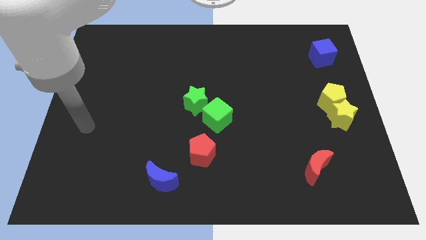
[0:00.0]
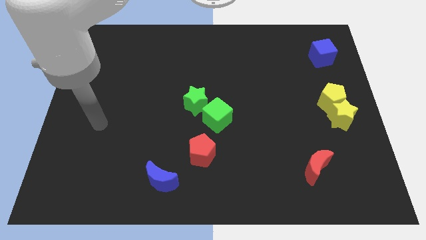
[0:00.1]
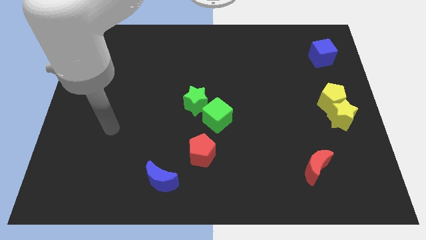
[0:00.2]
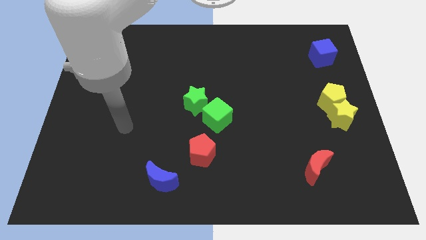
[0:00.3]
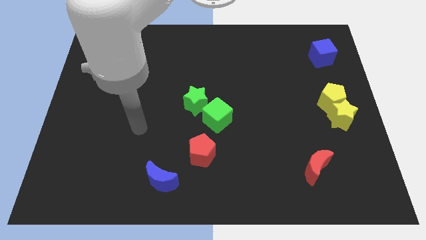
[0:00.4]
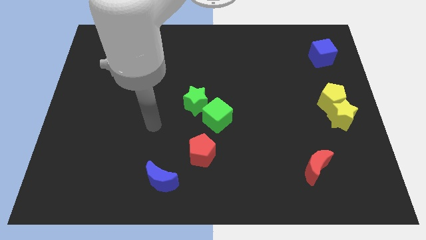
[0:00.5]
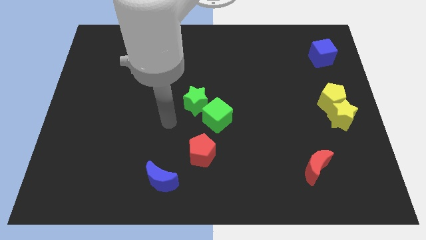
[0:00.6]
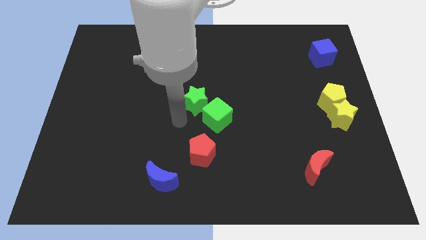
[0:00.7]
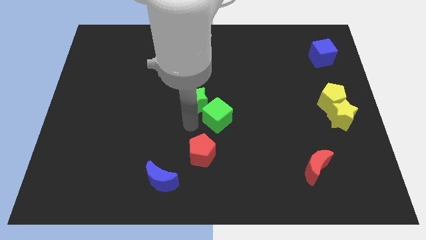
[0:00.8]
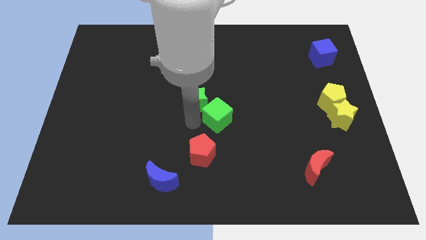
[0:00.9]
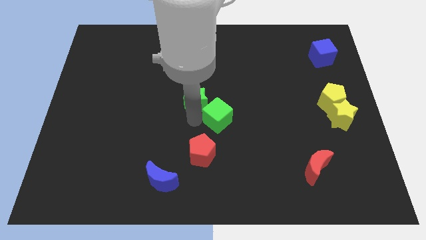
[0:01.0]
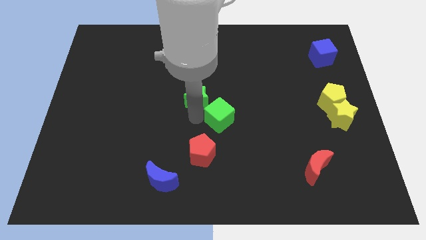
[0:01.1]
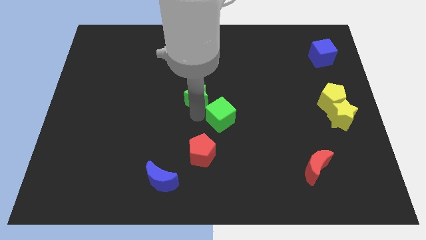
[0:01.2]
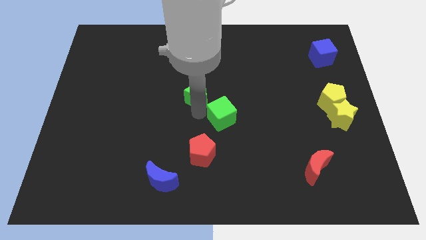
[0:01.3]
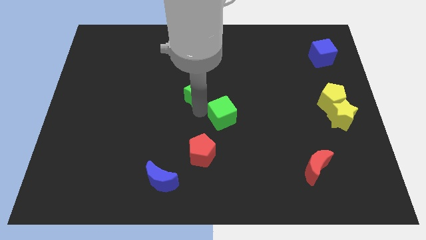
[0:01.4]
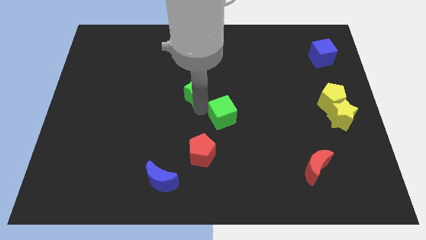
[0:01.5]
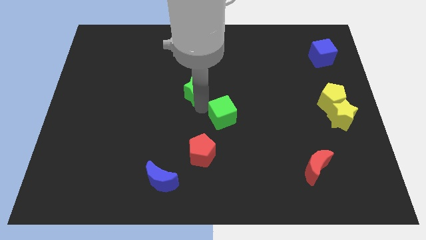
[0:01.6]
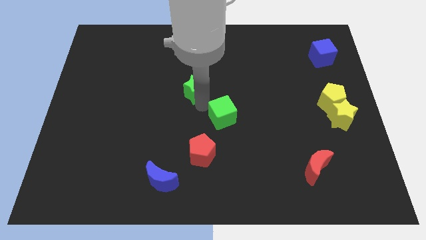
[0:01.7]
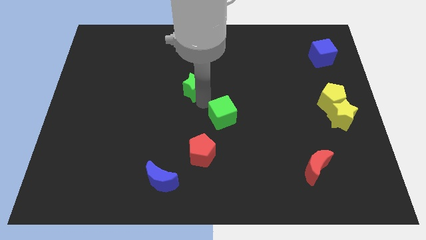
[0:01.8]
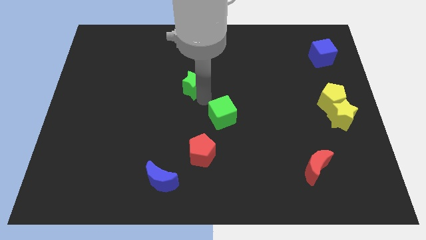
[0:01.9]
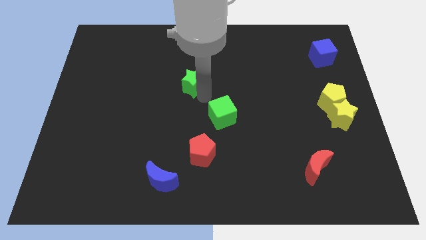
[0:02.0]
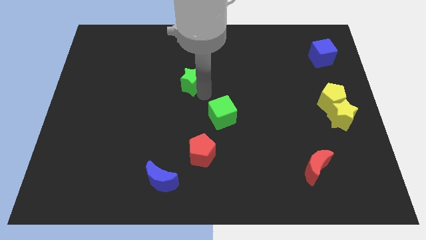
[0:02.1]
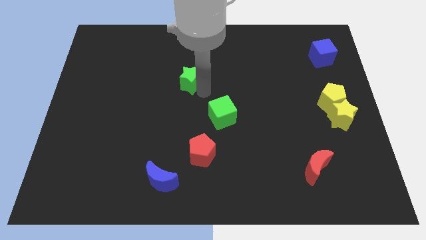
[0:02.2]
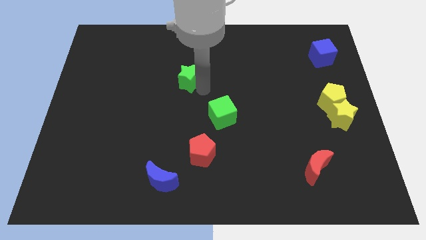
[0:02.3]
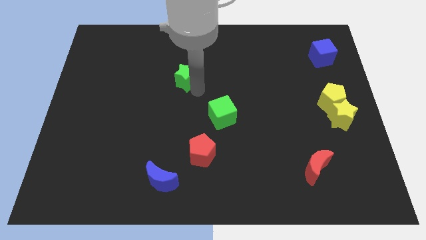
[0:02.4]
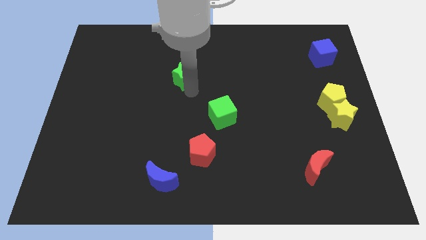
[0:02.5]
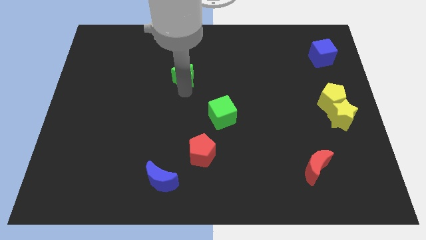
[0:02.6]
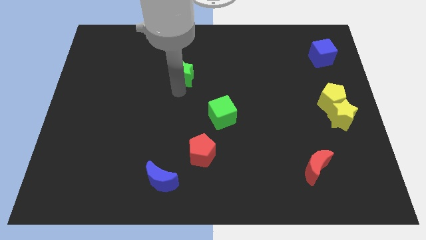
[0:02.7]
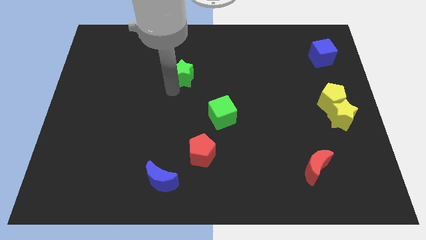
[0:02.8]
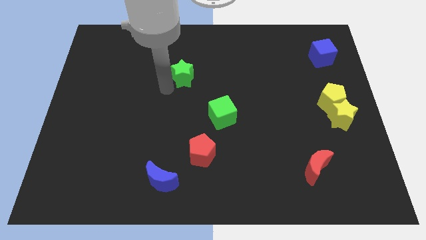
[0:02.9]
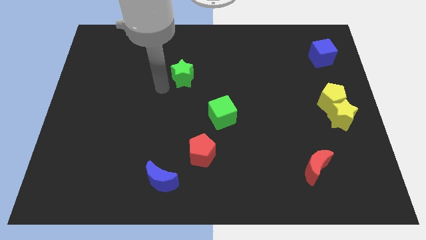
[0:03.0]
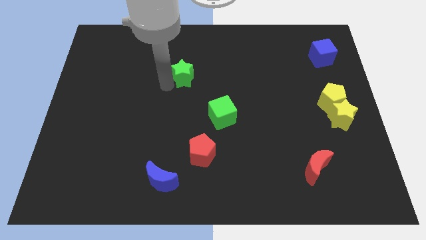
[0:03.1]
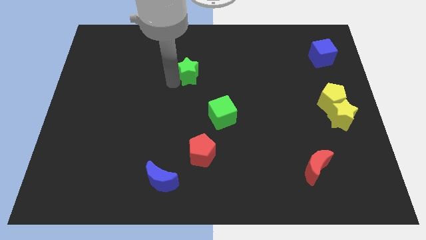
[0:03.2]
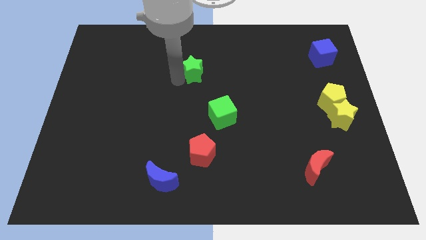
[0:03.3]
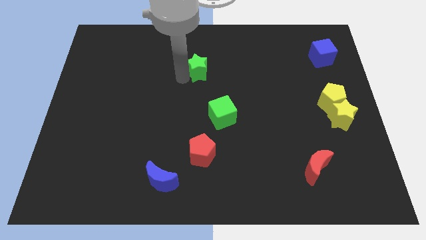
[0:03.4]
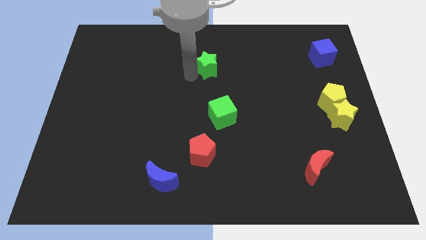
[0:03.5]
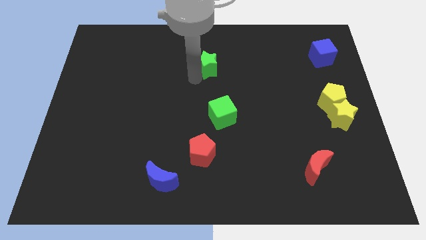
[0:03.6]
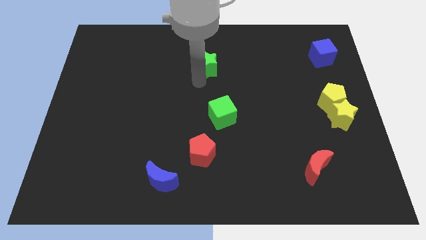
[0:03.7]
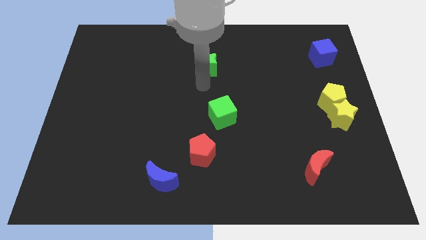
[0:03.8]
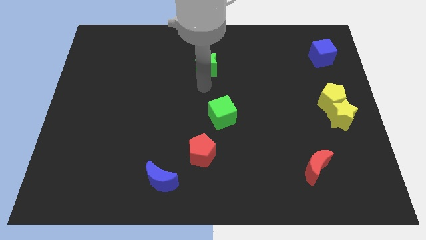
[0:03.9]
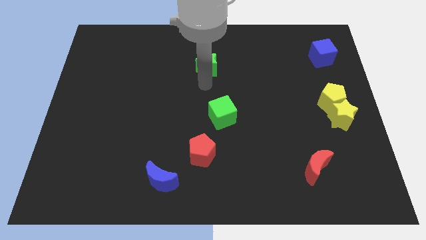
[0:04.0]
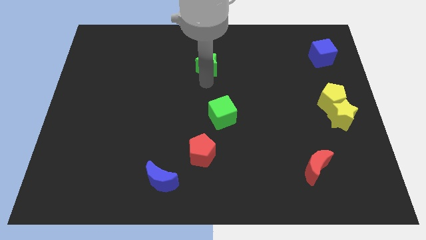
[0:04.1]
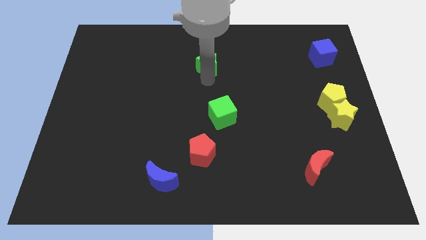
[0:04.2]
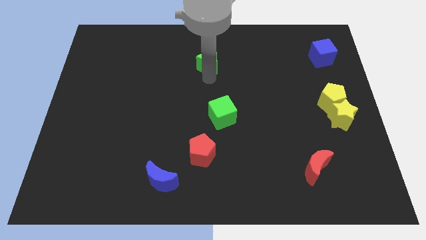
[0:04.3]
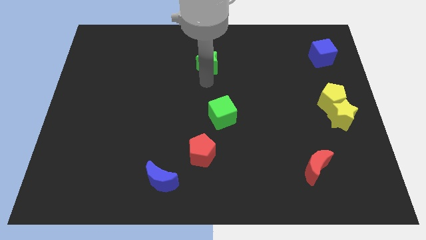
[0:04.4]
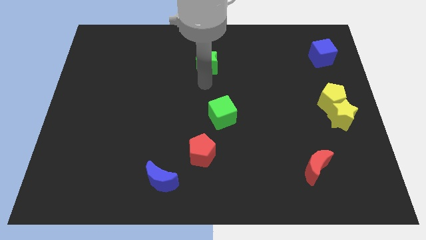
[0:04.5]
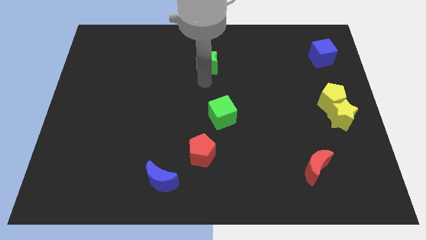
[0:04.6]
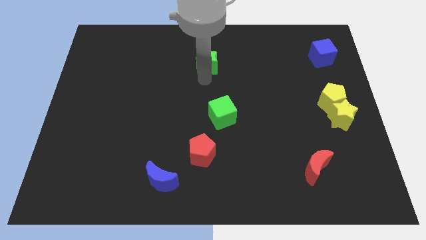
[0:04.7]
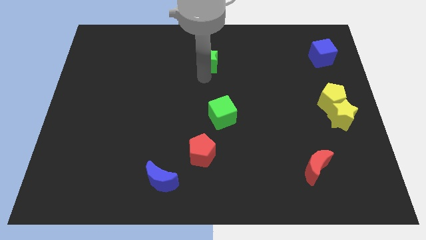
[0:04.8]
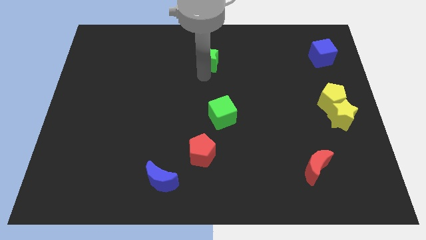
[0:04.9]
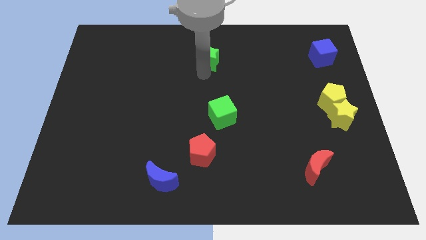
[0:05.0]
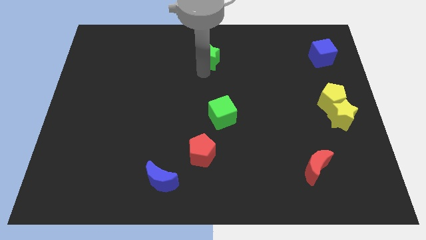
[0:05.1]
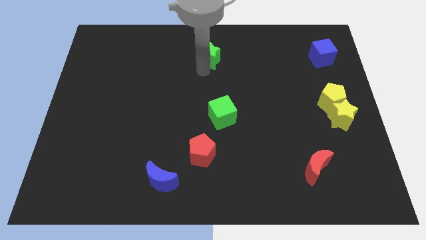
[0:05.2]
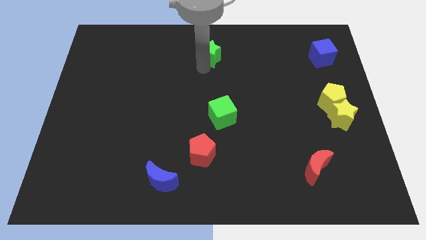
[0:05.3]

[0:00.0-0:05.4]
slide the green star to the towards your base

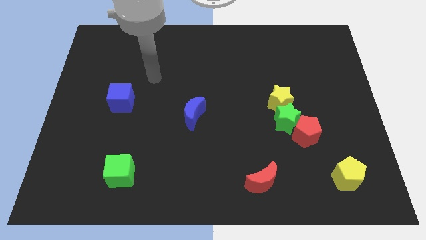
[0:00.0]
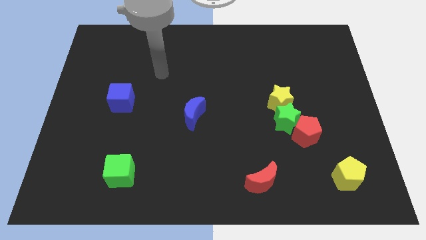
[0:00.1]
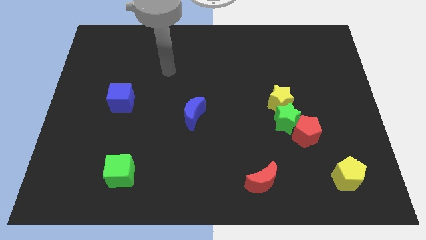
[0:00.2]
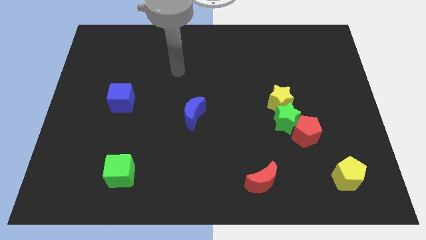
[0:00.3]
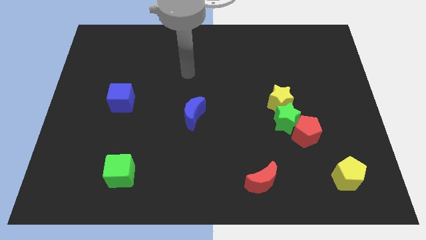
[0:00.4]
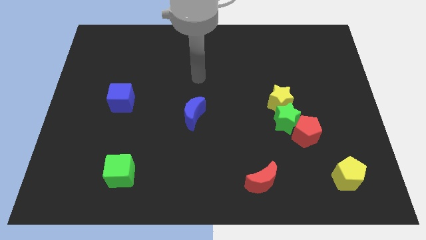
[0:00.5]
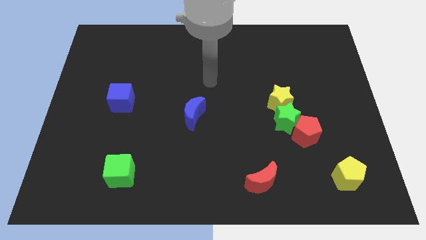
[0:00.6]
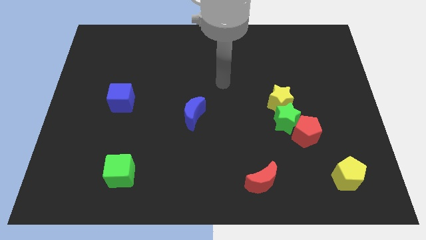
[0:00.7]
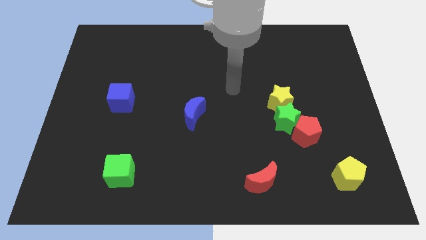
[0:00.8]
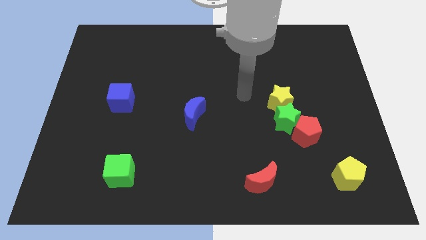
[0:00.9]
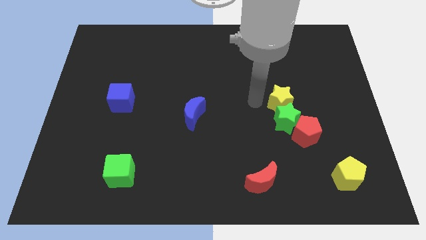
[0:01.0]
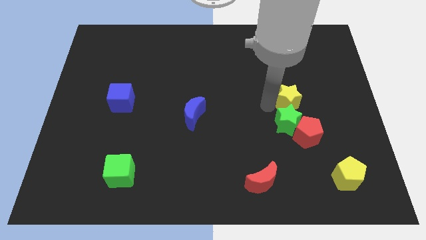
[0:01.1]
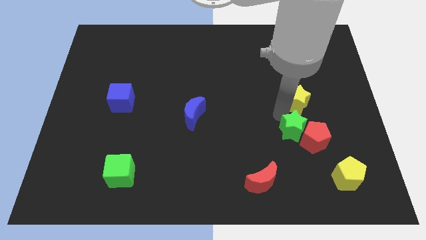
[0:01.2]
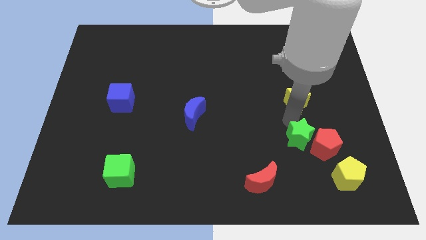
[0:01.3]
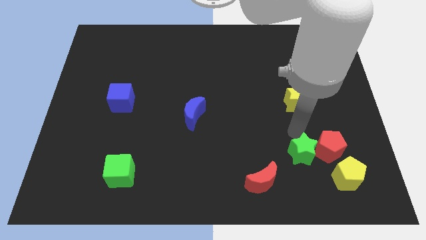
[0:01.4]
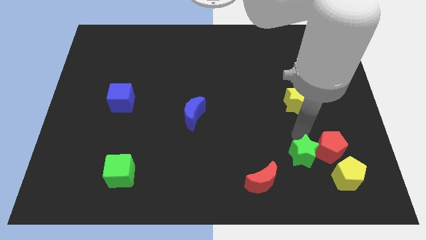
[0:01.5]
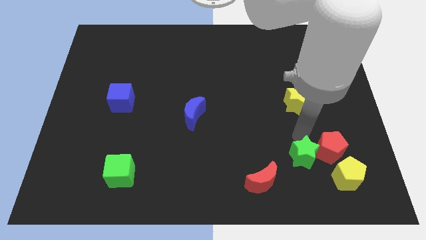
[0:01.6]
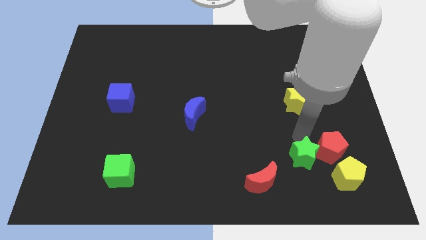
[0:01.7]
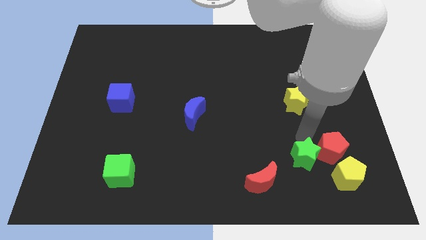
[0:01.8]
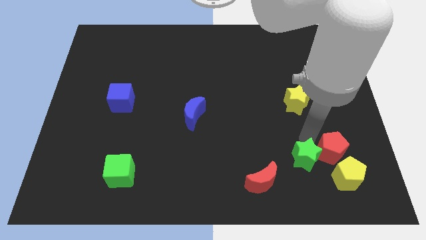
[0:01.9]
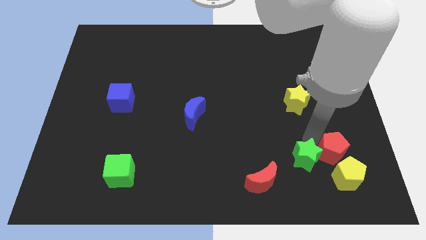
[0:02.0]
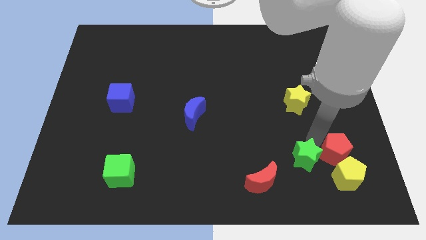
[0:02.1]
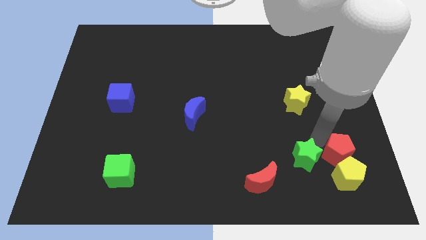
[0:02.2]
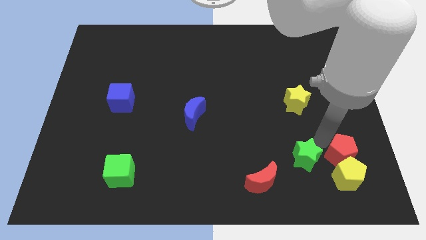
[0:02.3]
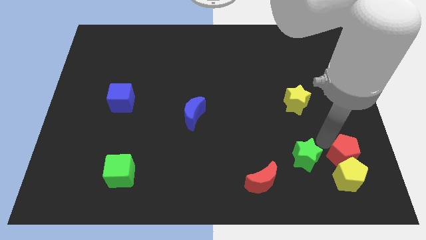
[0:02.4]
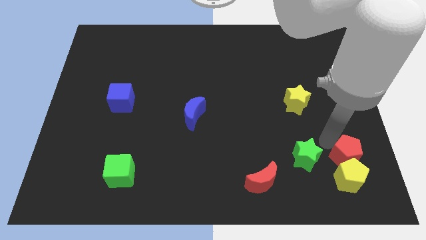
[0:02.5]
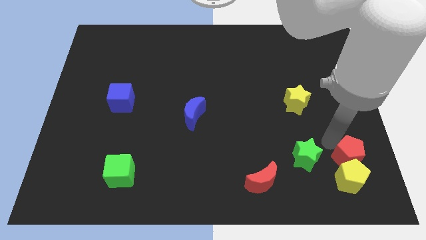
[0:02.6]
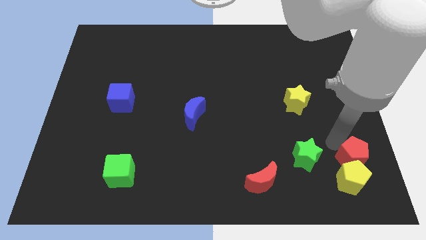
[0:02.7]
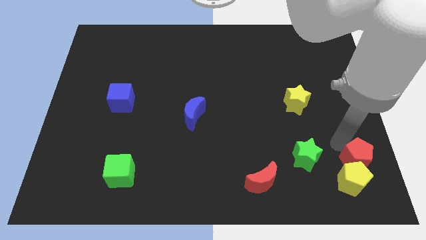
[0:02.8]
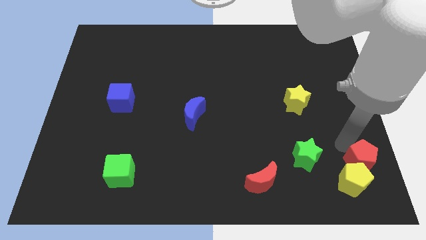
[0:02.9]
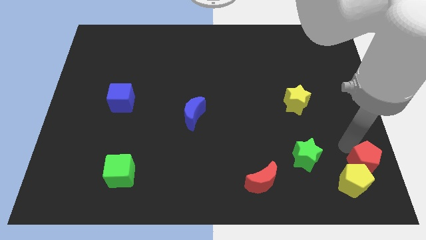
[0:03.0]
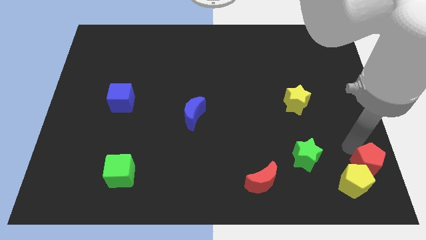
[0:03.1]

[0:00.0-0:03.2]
move the red pentagon to the bottom right corner
